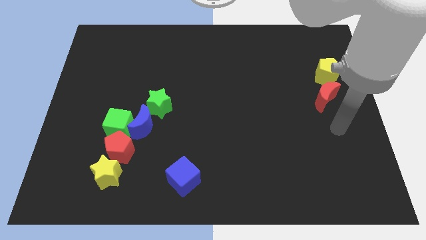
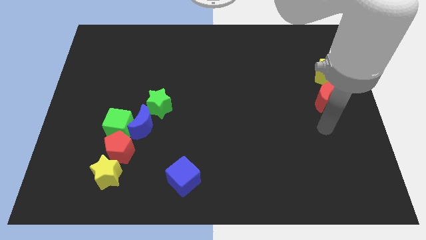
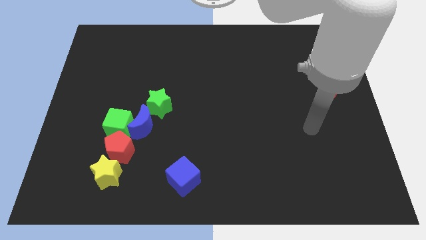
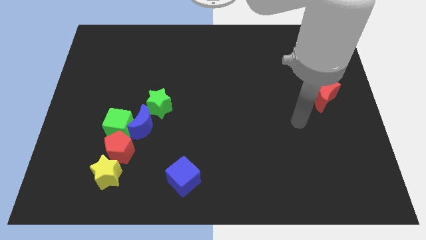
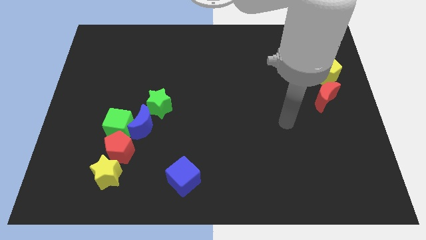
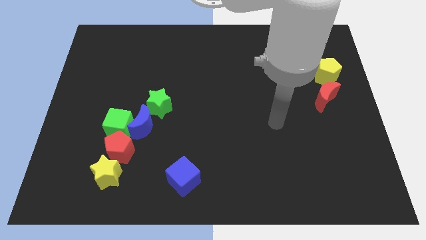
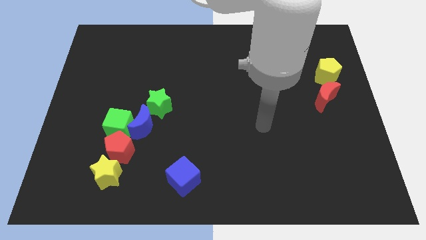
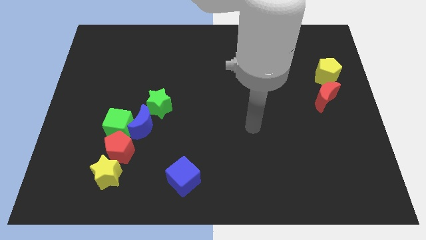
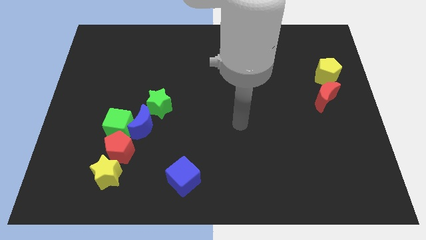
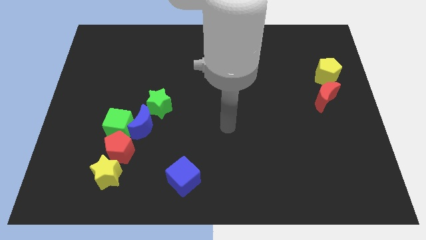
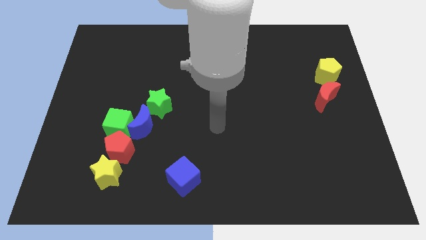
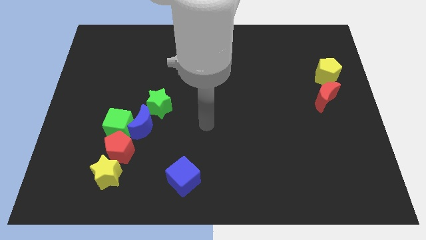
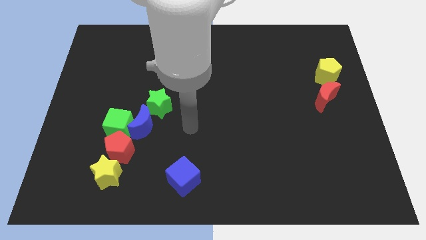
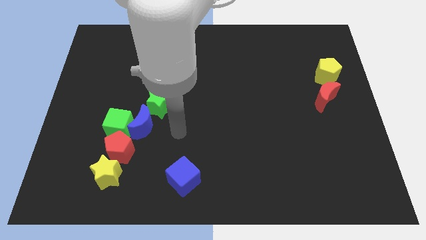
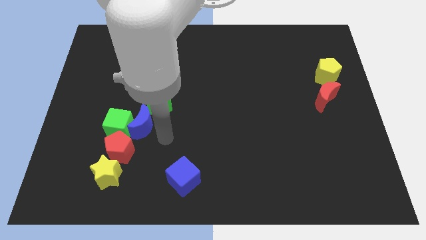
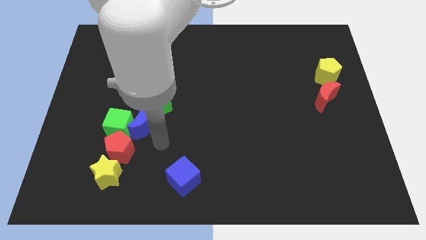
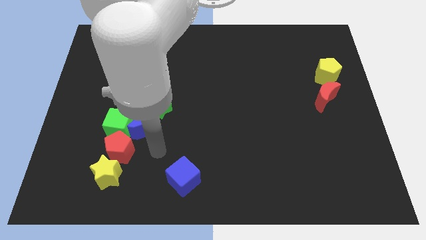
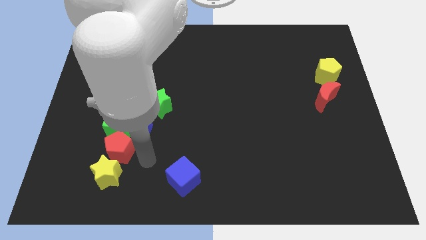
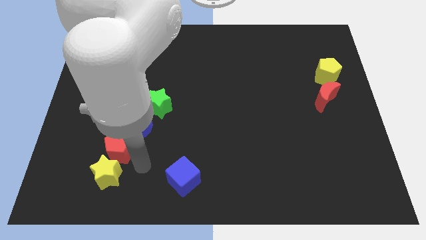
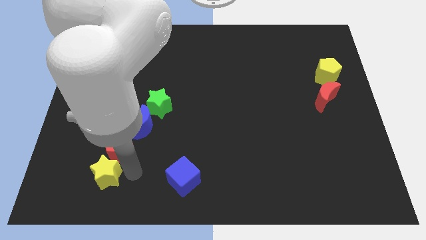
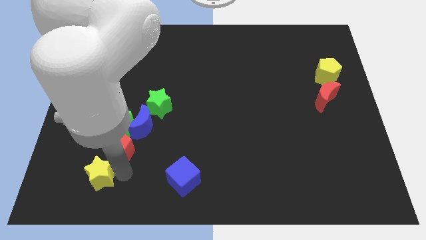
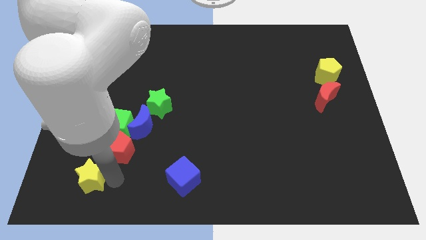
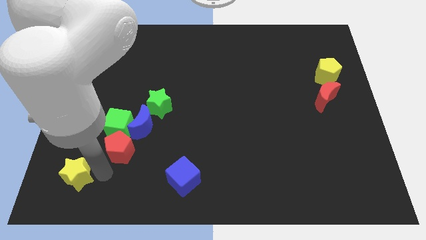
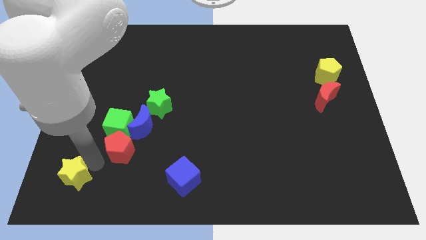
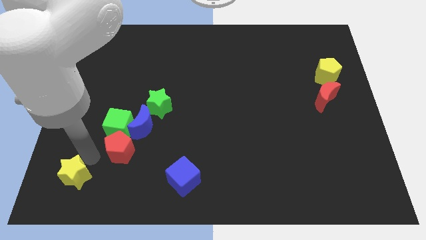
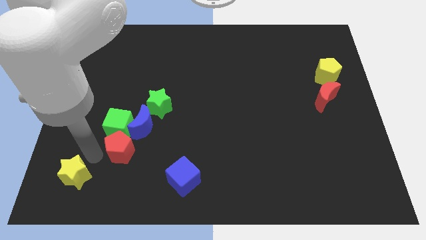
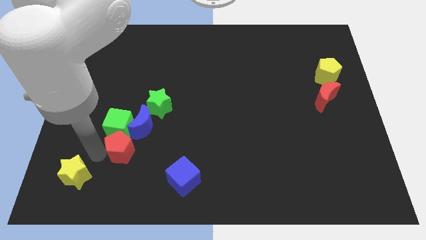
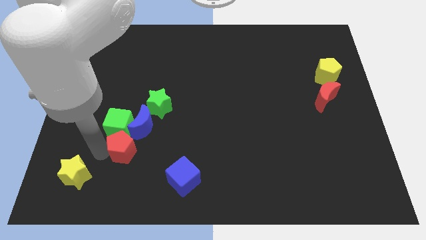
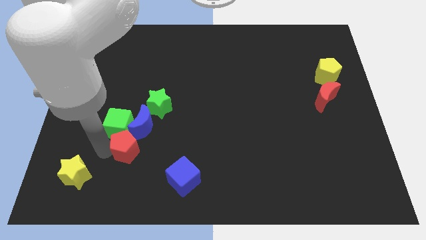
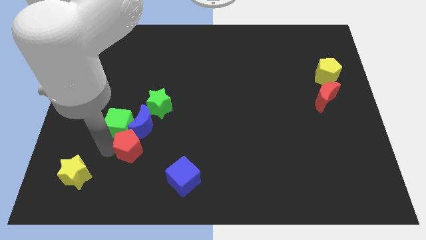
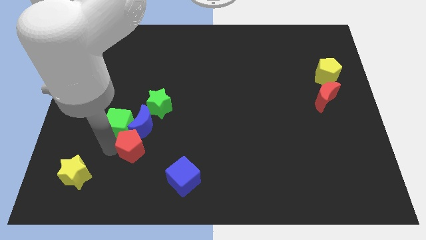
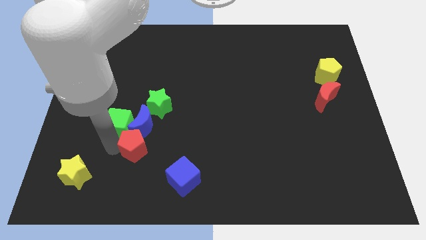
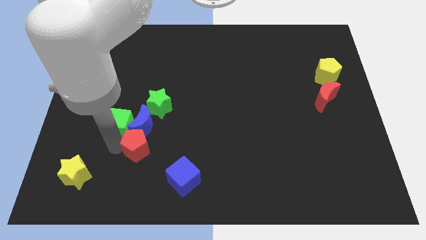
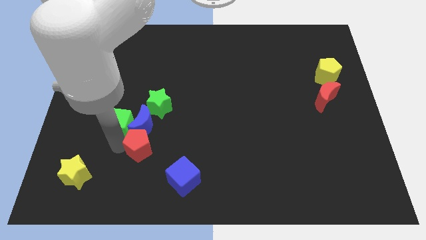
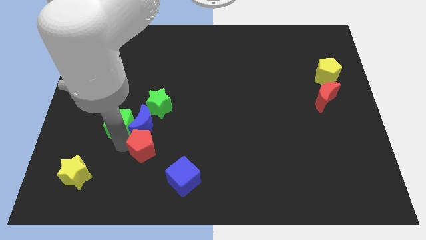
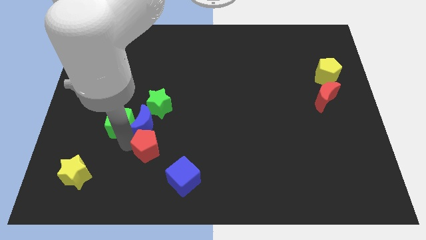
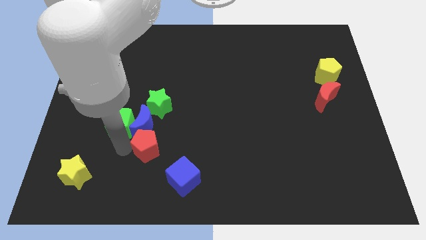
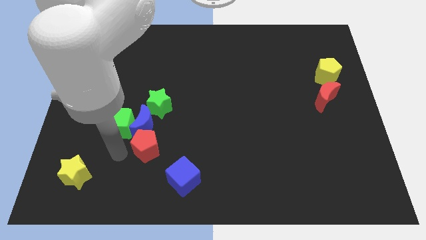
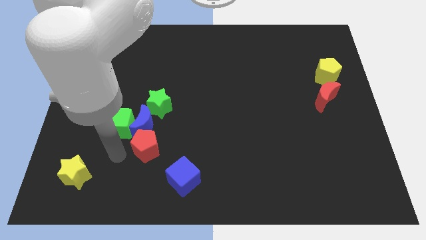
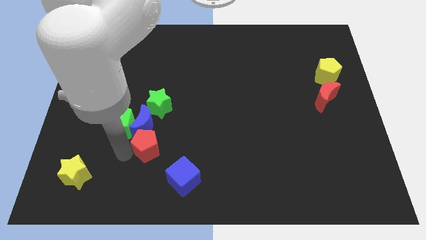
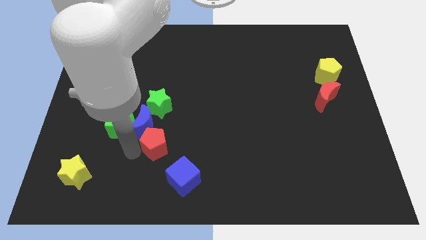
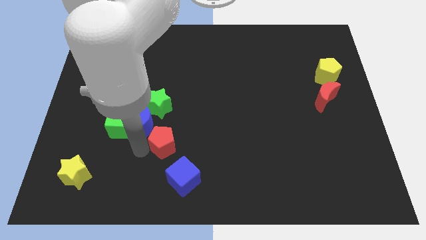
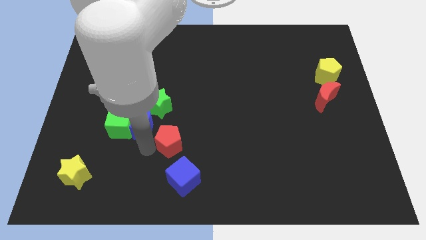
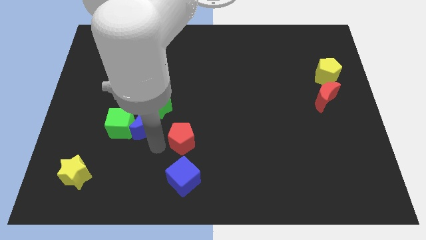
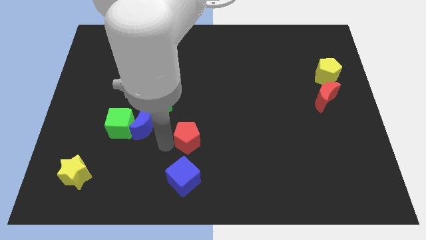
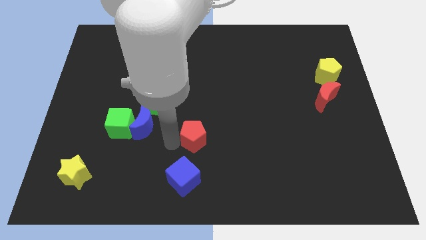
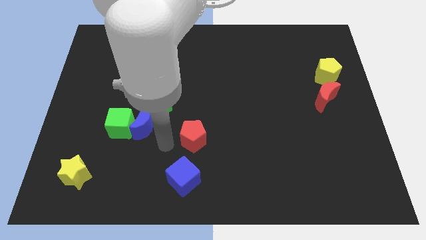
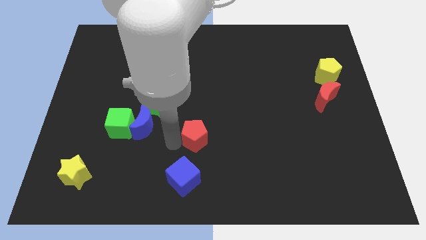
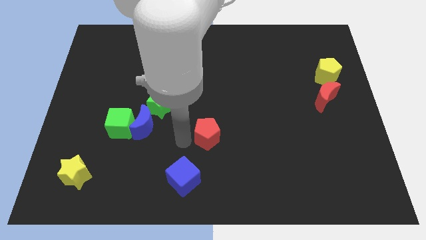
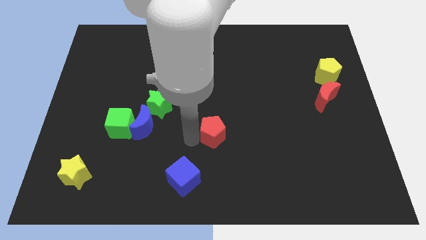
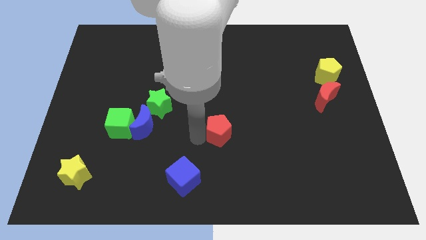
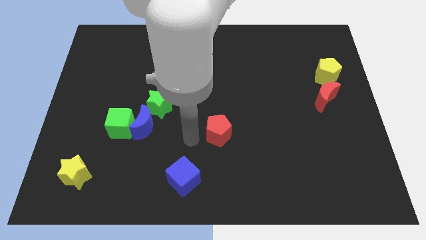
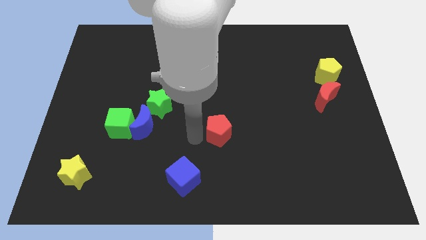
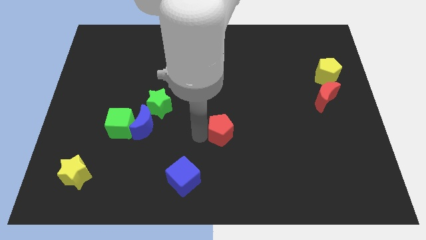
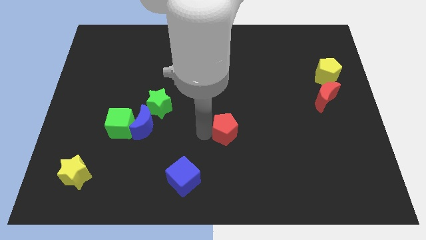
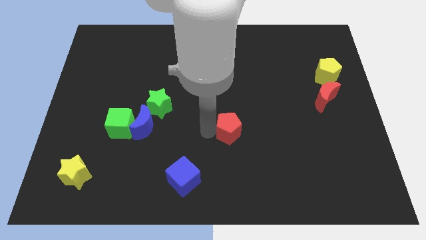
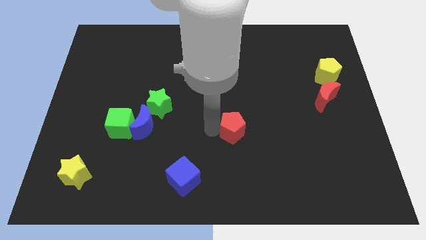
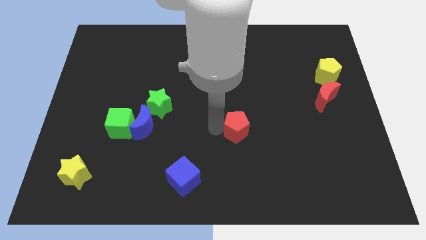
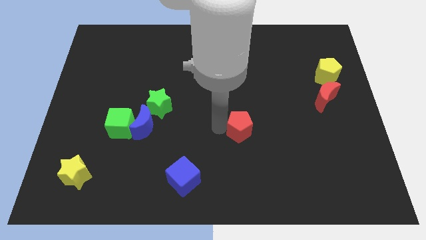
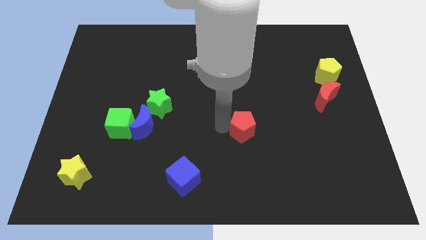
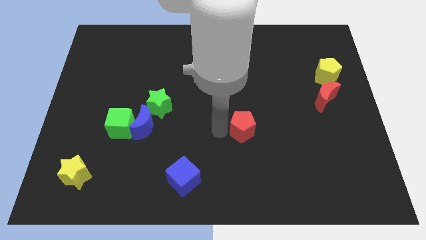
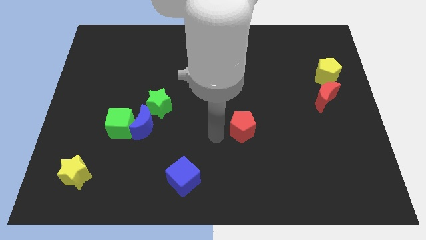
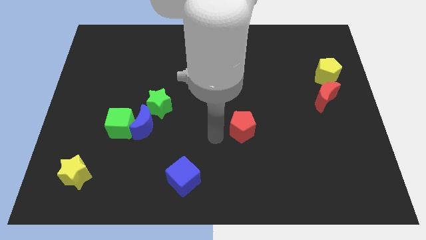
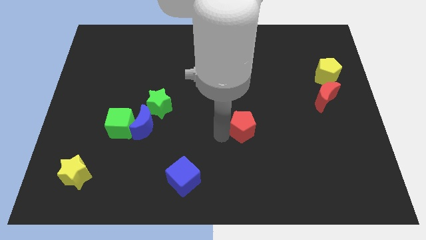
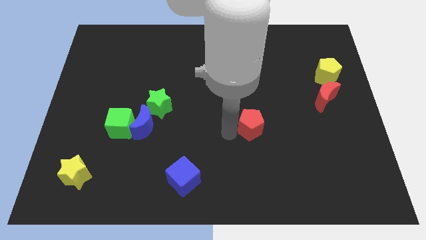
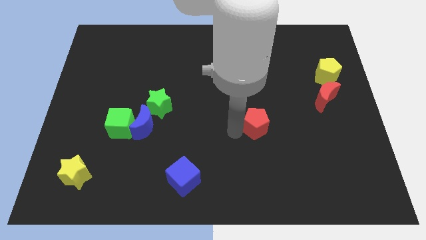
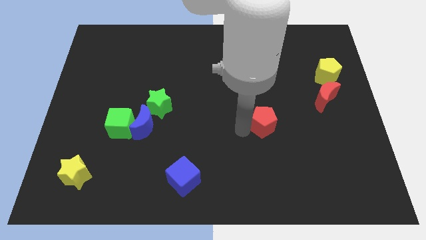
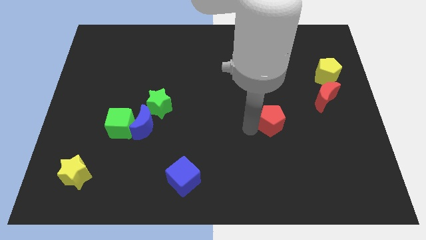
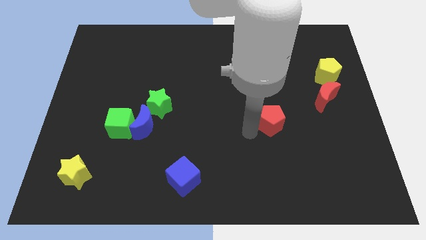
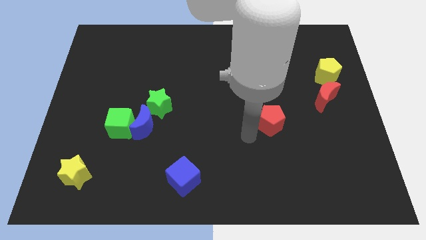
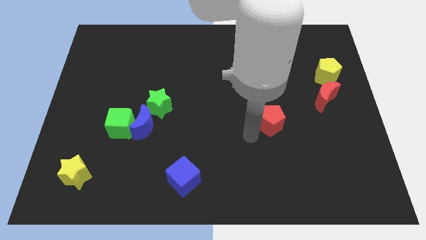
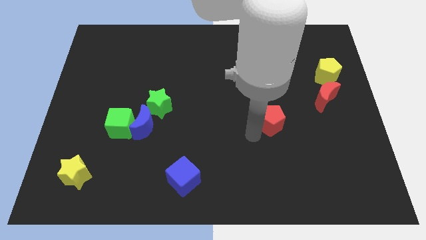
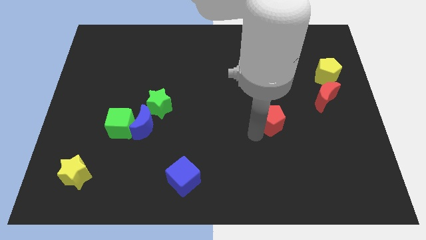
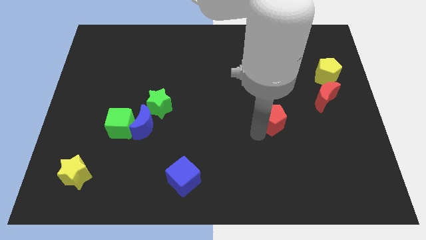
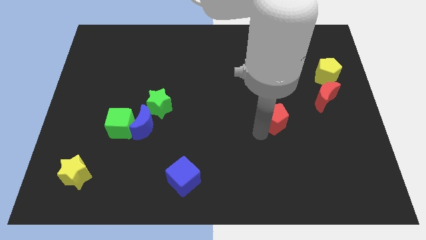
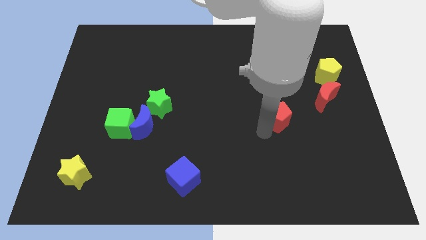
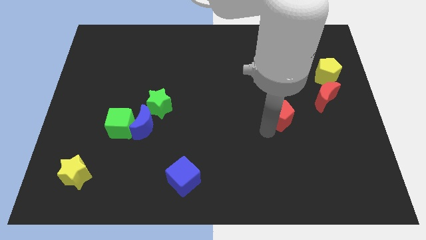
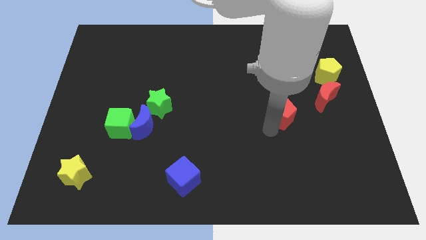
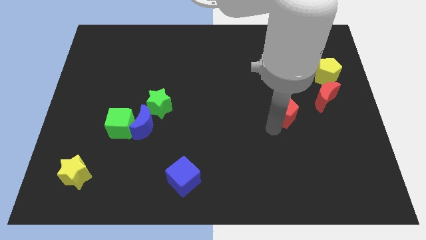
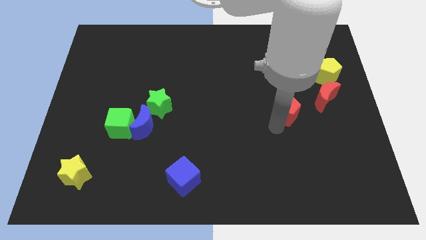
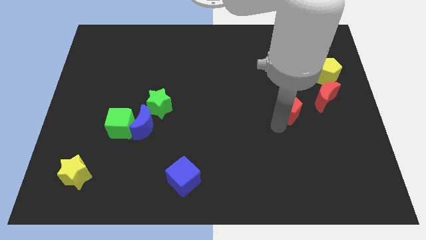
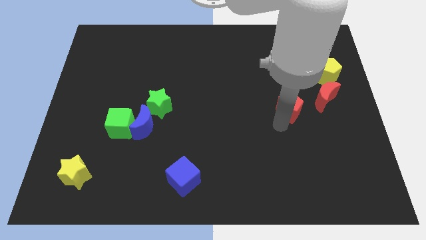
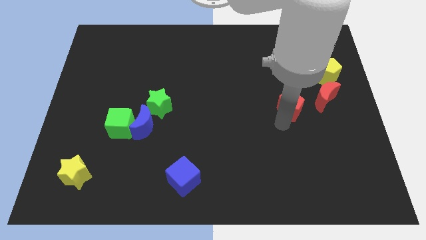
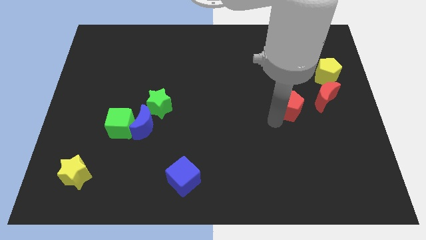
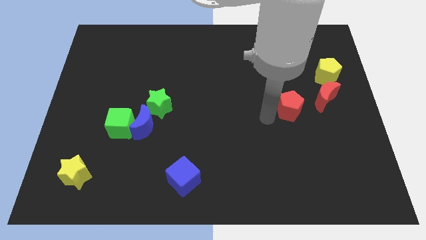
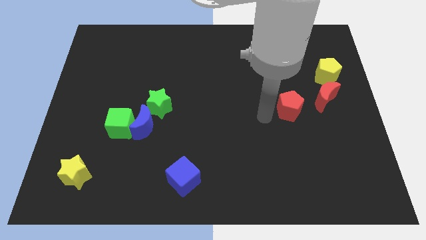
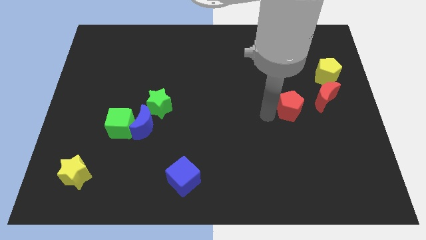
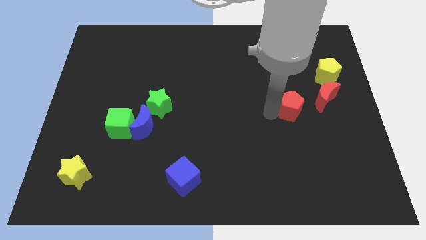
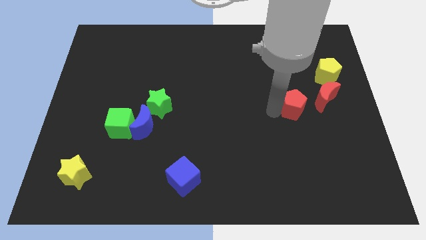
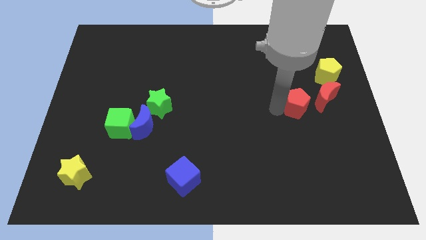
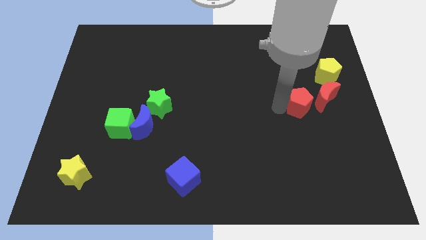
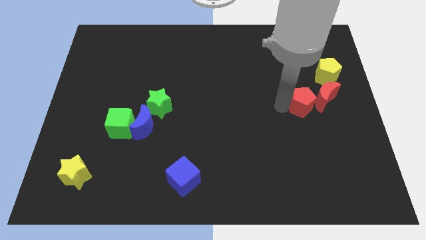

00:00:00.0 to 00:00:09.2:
push the red pentagon close to the red moon
